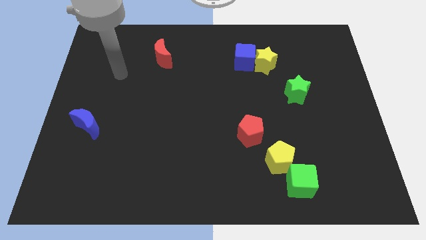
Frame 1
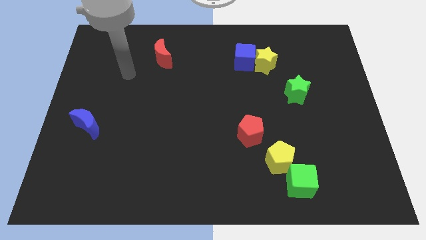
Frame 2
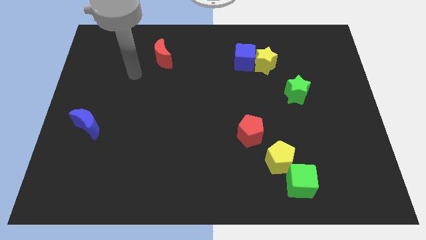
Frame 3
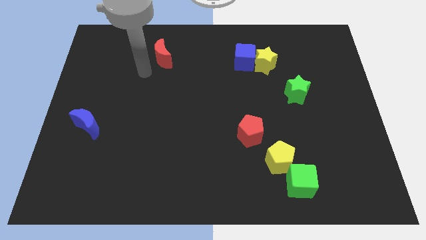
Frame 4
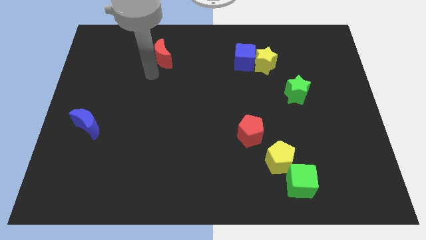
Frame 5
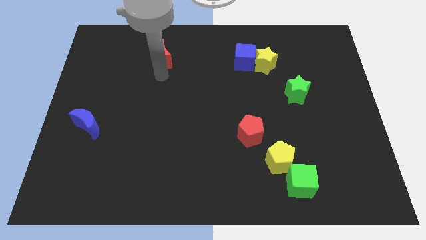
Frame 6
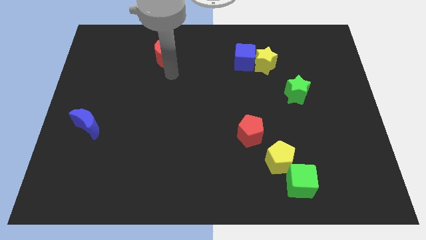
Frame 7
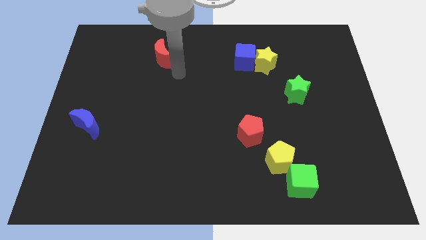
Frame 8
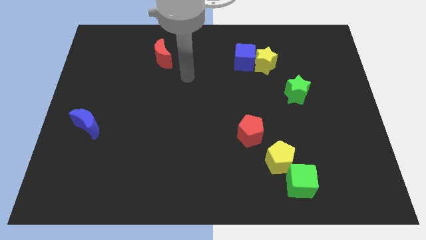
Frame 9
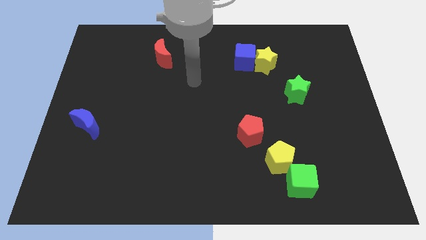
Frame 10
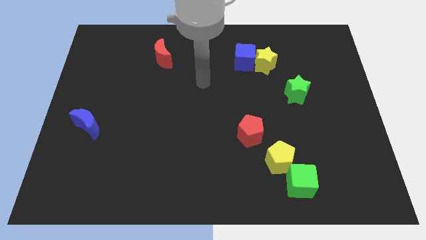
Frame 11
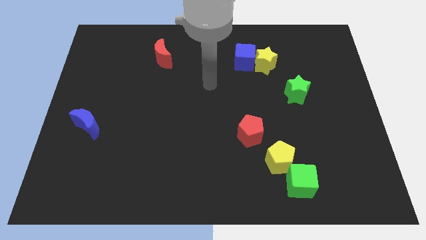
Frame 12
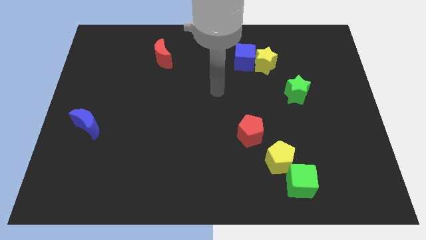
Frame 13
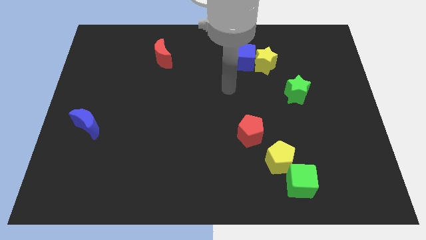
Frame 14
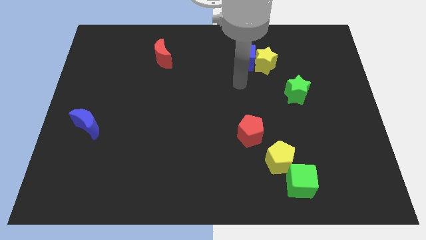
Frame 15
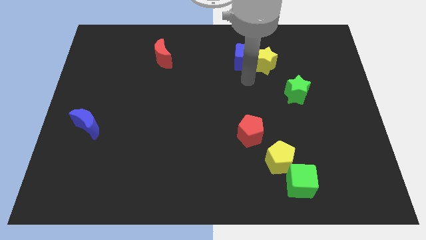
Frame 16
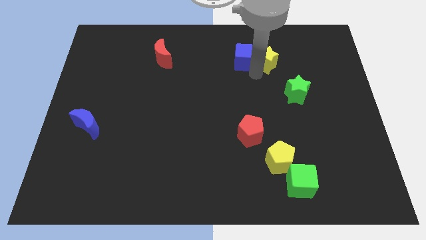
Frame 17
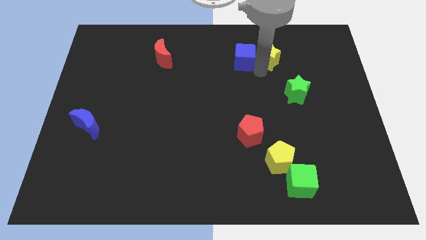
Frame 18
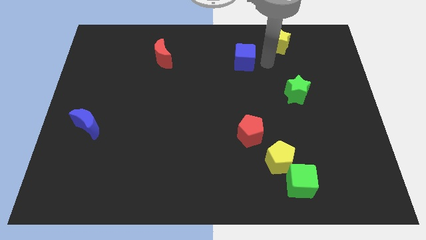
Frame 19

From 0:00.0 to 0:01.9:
move the blue cube away from the yellow star

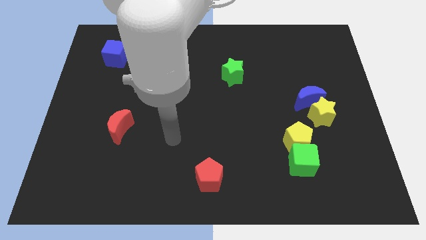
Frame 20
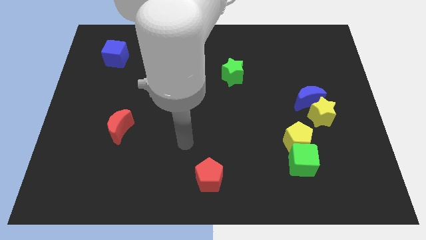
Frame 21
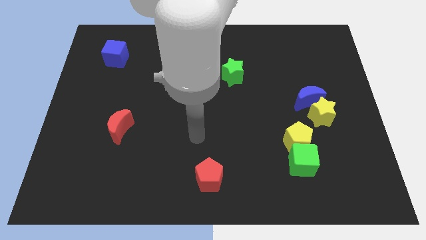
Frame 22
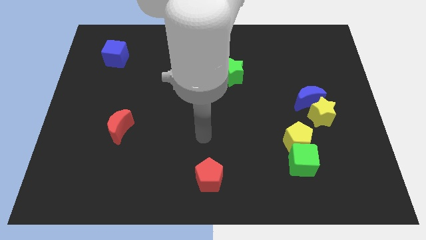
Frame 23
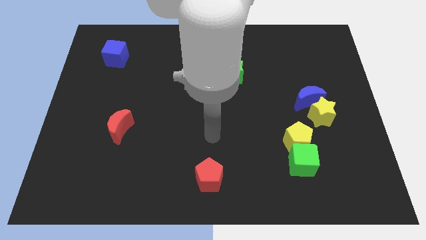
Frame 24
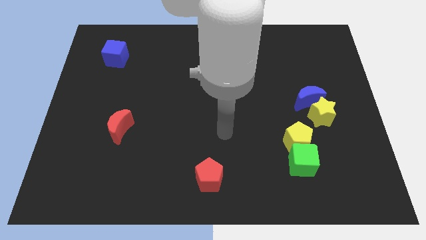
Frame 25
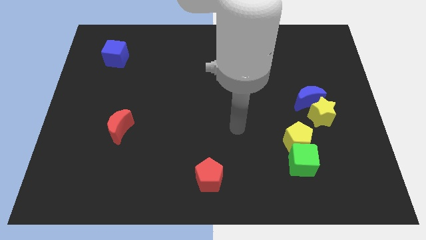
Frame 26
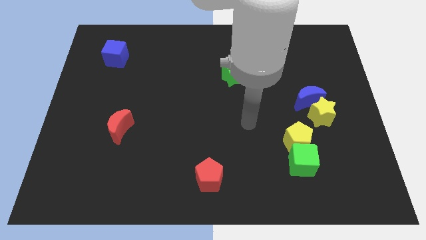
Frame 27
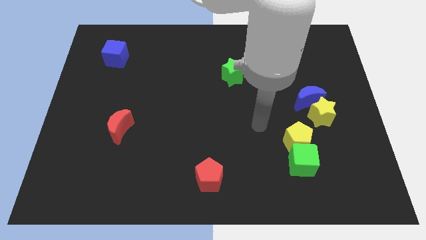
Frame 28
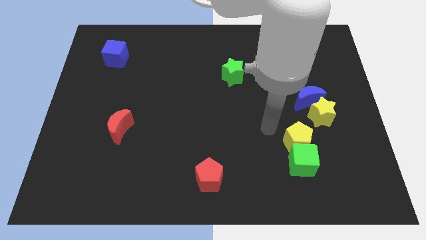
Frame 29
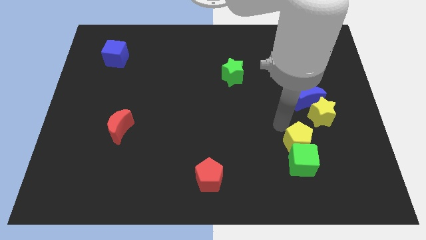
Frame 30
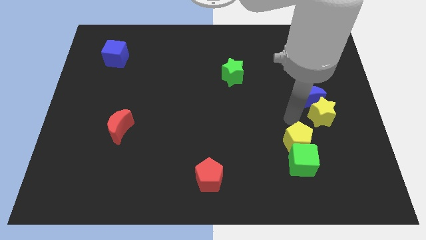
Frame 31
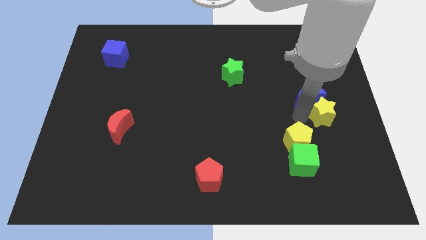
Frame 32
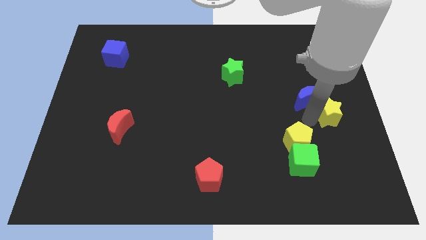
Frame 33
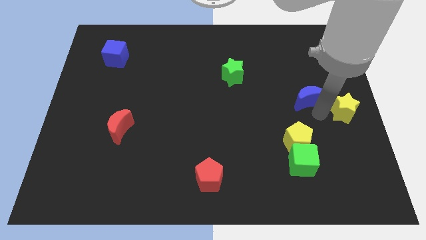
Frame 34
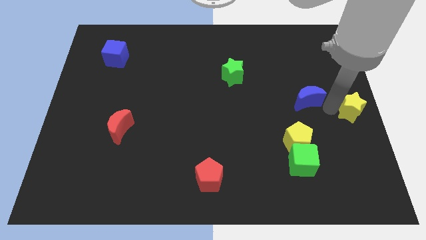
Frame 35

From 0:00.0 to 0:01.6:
separate the blue moon from the yellow star

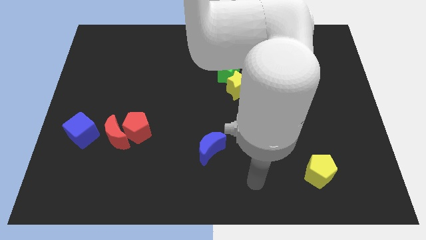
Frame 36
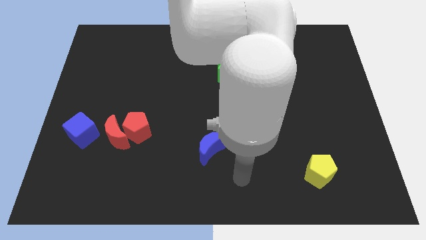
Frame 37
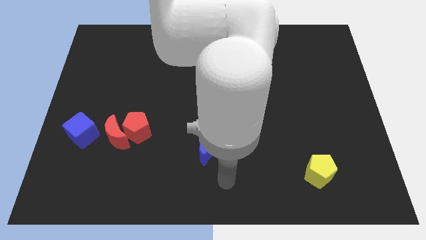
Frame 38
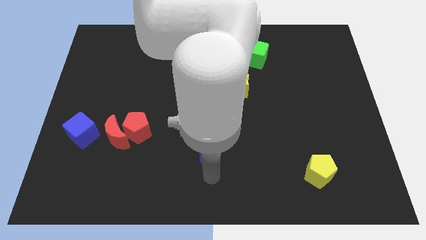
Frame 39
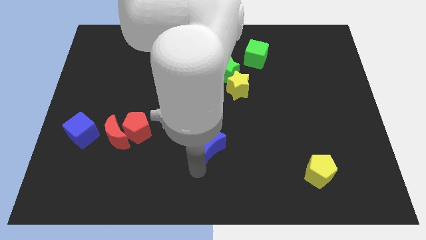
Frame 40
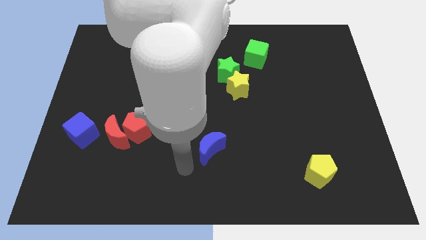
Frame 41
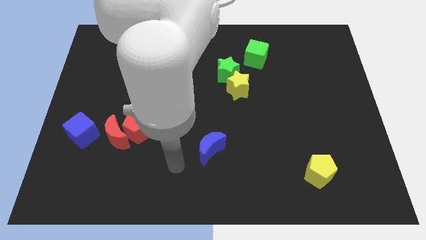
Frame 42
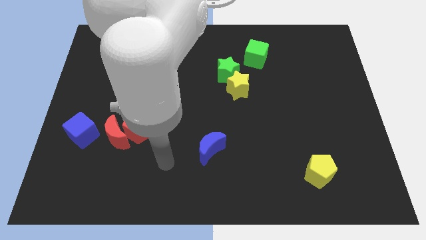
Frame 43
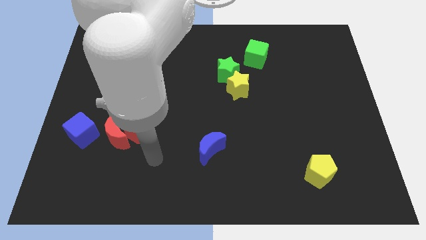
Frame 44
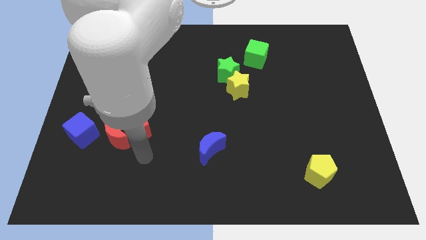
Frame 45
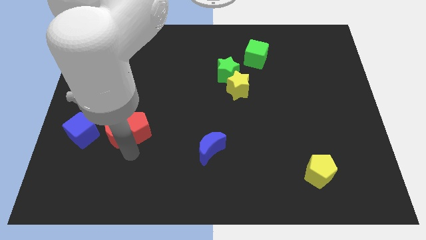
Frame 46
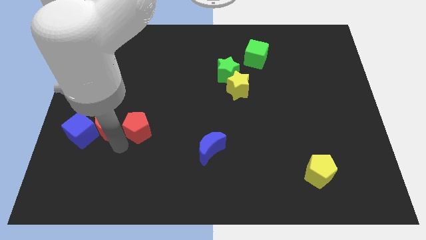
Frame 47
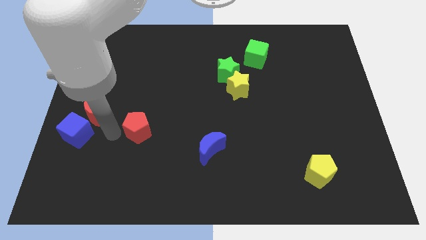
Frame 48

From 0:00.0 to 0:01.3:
move the red pentagon away from the red moon

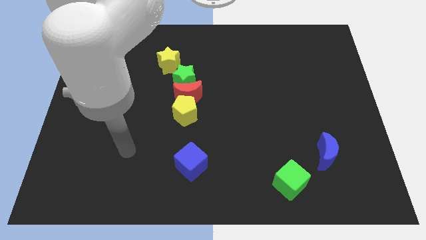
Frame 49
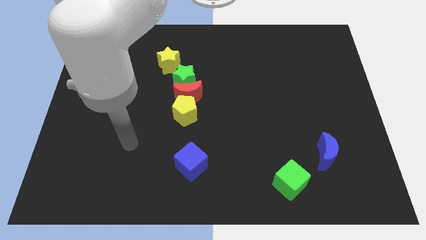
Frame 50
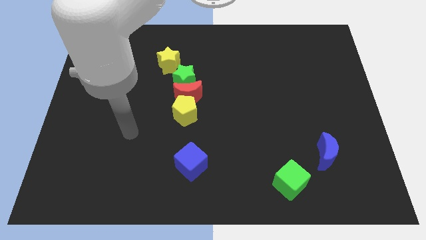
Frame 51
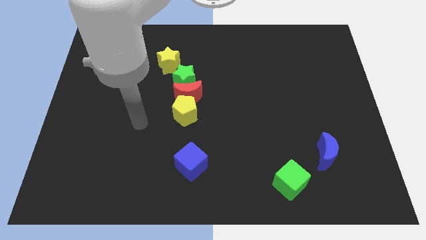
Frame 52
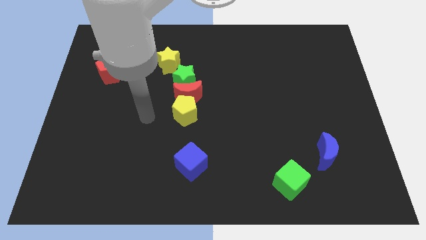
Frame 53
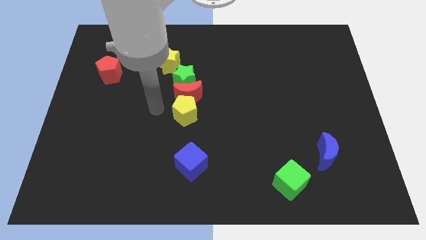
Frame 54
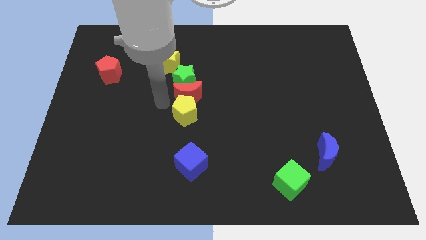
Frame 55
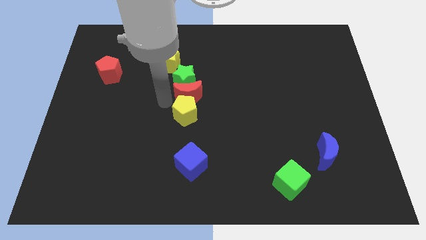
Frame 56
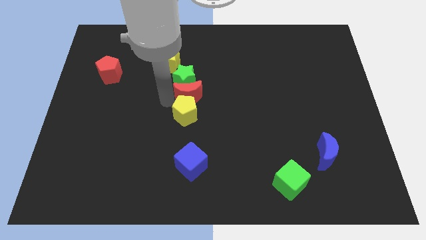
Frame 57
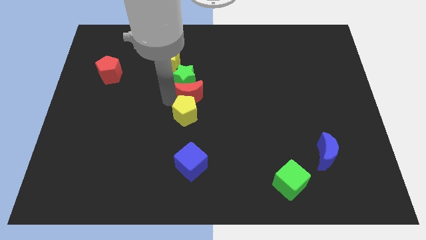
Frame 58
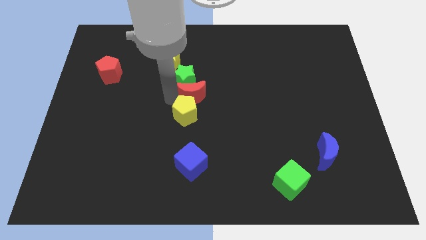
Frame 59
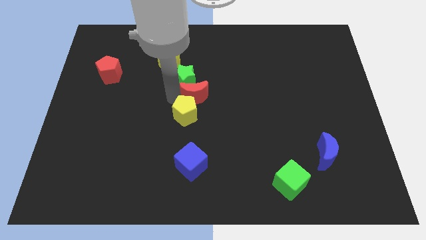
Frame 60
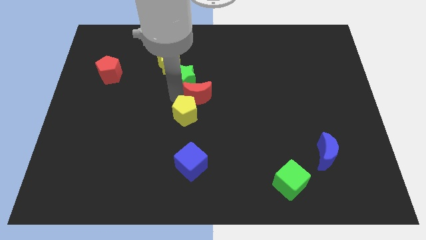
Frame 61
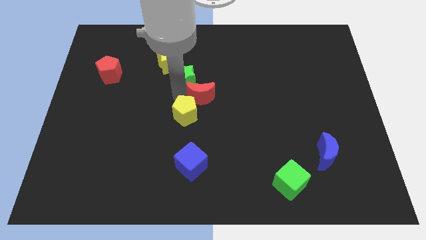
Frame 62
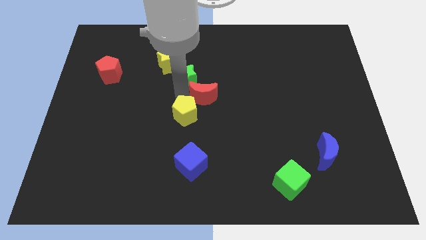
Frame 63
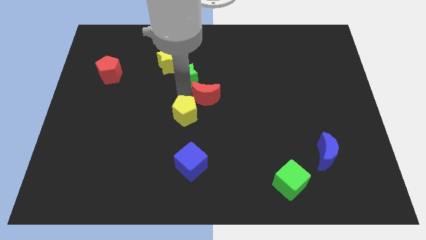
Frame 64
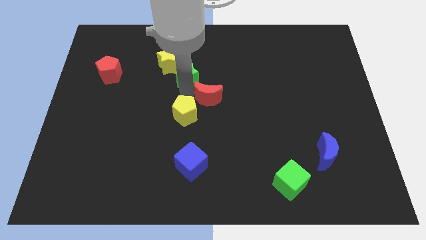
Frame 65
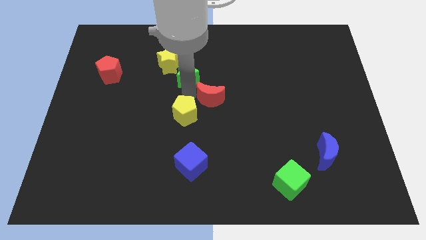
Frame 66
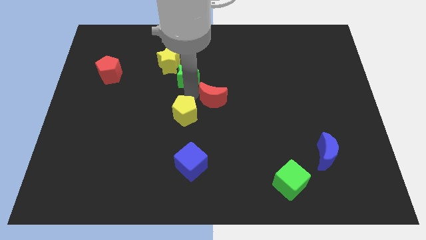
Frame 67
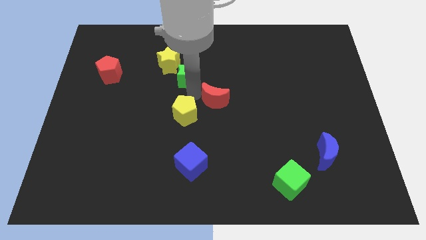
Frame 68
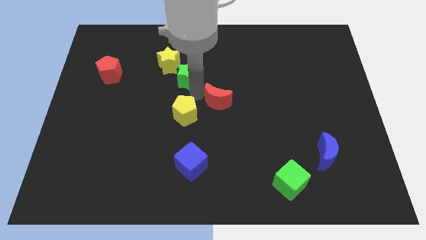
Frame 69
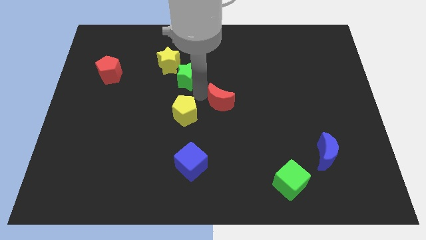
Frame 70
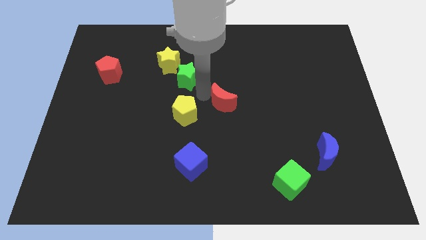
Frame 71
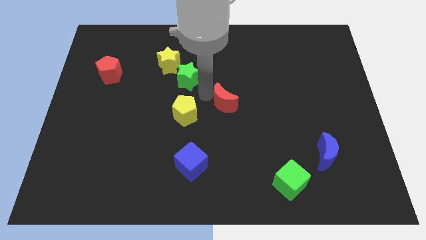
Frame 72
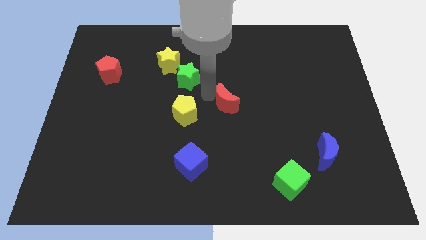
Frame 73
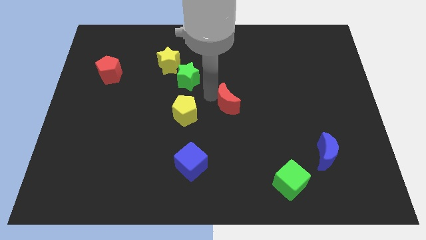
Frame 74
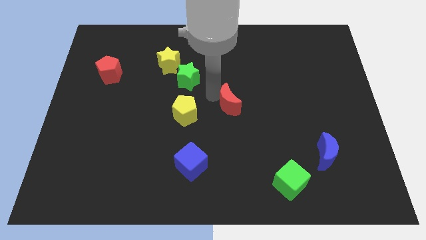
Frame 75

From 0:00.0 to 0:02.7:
move the red moon away from the green star and yellow pentagon

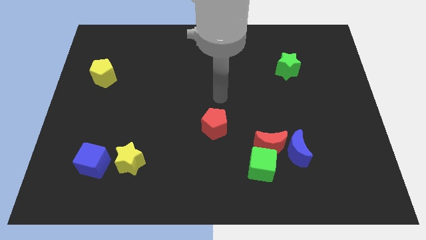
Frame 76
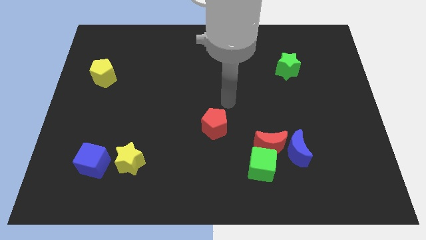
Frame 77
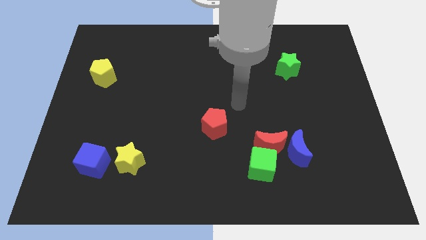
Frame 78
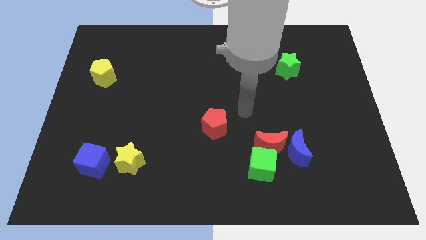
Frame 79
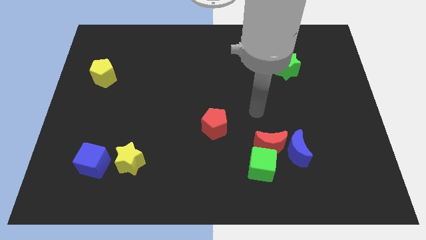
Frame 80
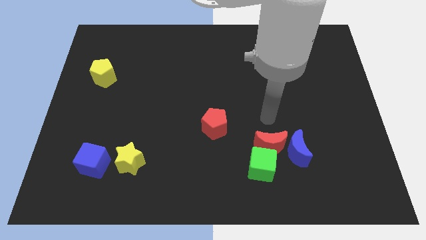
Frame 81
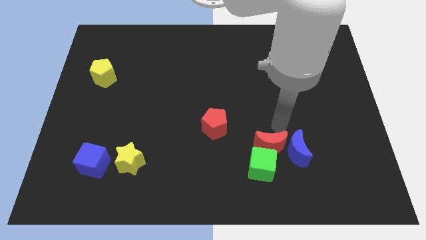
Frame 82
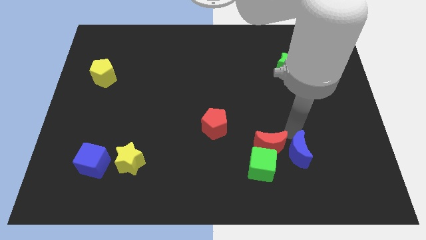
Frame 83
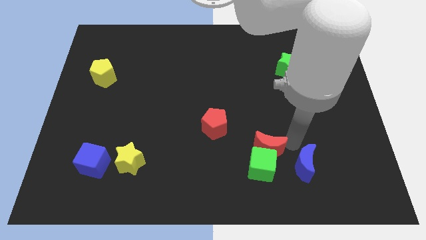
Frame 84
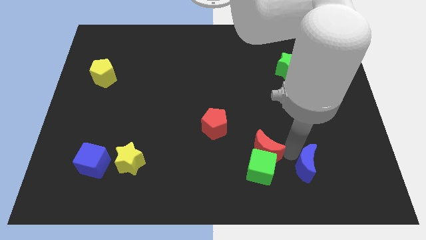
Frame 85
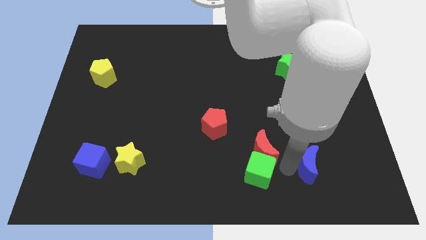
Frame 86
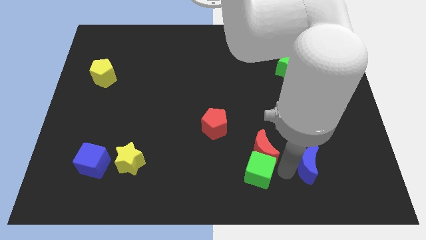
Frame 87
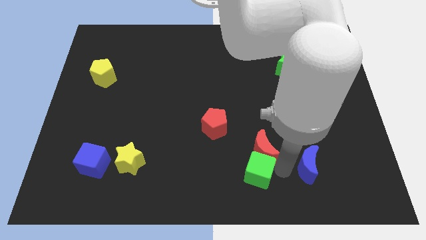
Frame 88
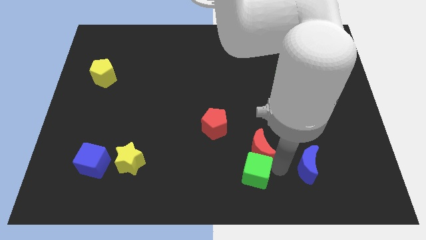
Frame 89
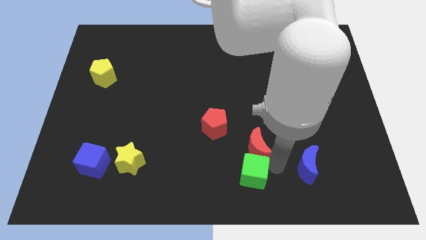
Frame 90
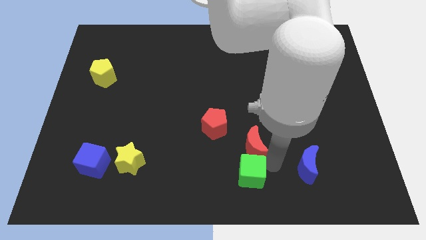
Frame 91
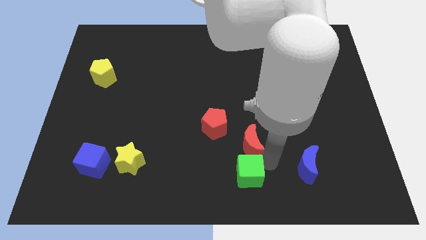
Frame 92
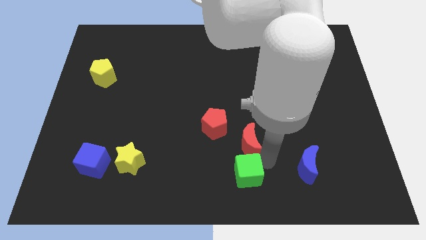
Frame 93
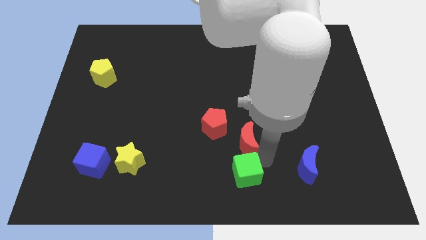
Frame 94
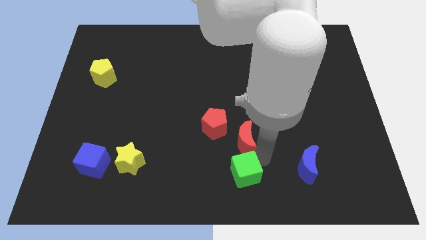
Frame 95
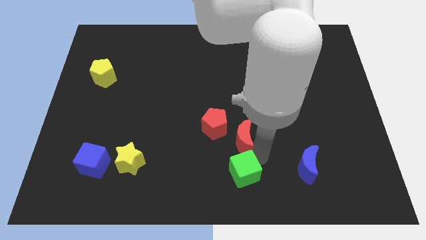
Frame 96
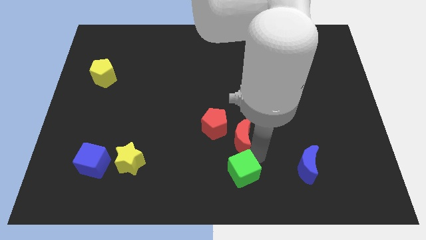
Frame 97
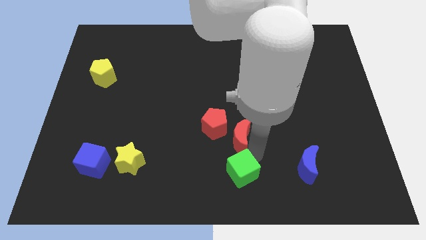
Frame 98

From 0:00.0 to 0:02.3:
pull the red moon apart from the green cube and blue moon
